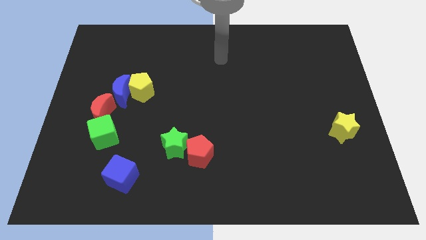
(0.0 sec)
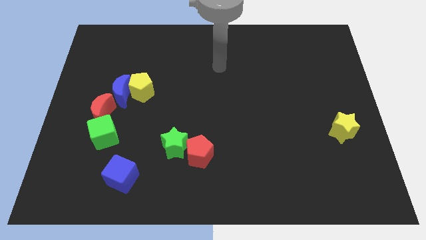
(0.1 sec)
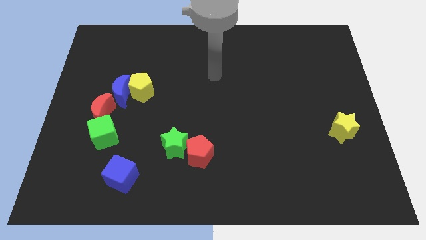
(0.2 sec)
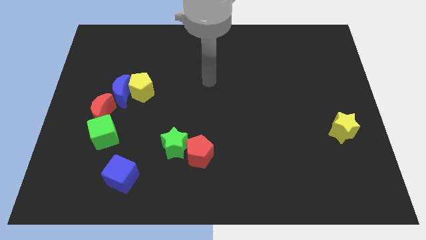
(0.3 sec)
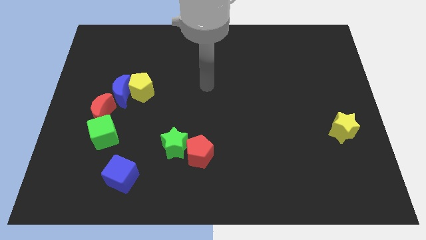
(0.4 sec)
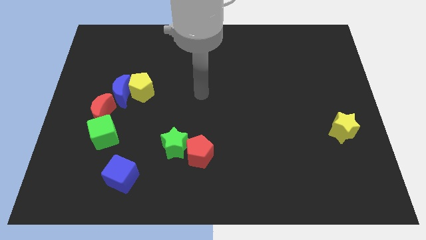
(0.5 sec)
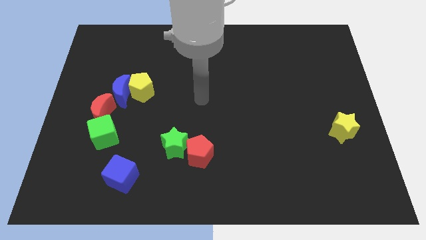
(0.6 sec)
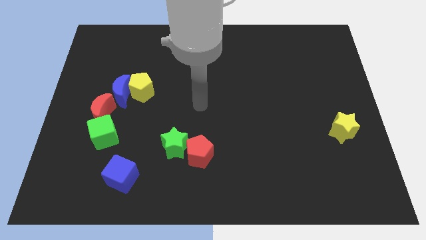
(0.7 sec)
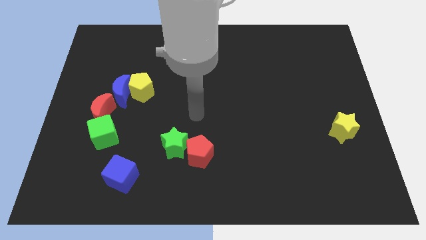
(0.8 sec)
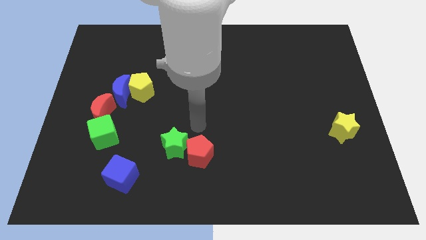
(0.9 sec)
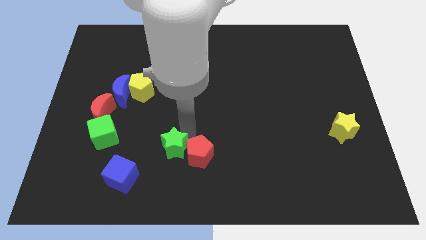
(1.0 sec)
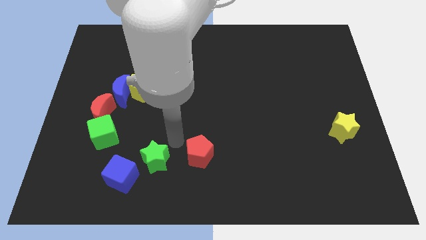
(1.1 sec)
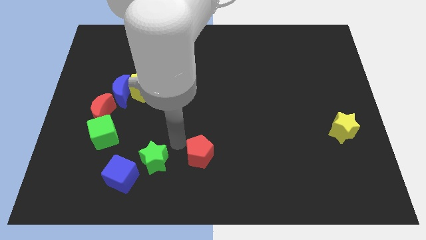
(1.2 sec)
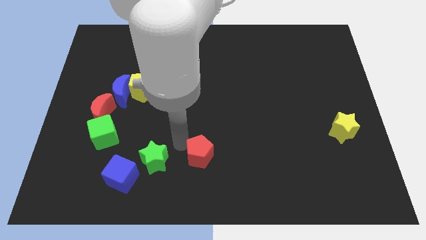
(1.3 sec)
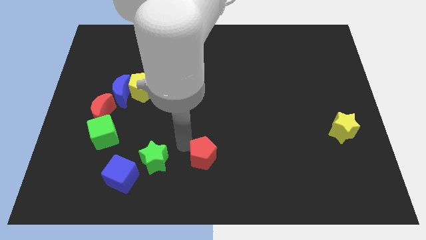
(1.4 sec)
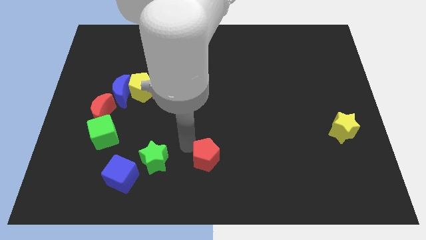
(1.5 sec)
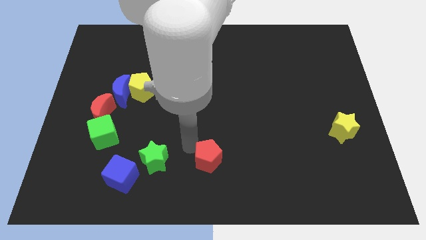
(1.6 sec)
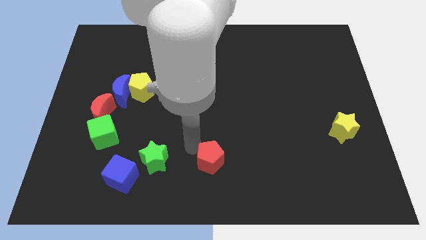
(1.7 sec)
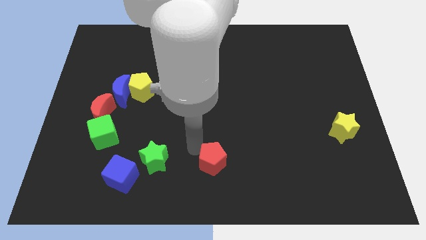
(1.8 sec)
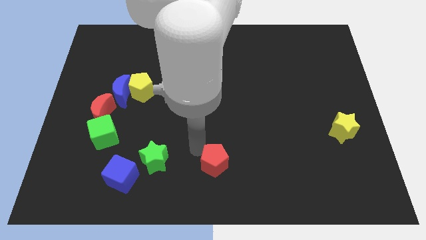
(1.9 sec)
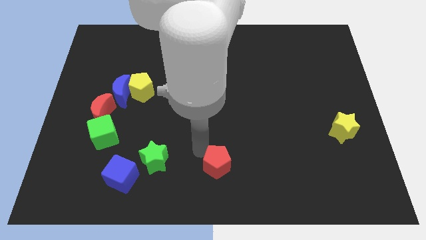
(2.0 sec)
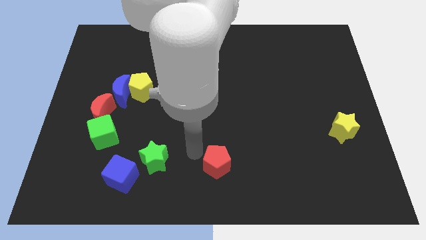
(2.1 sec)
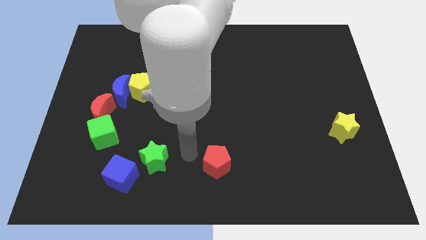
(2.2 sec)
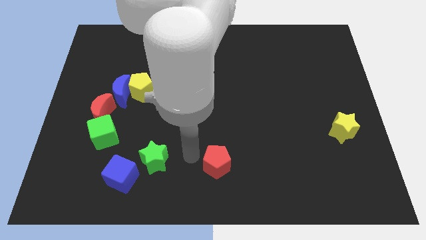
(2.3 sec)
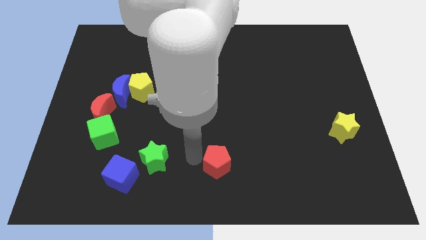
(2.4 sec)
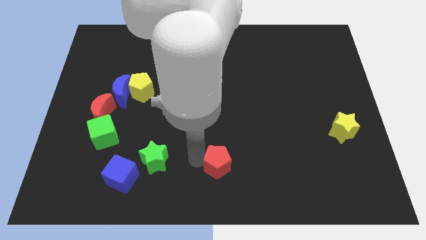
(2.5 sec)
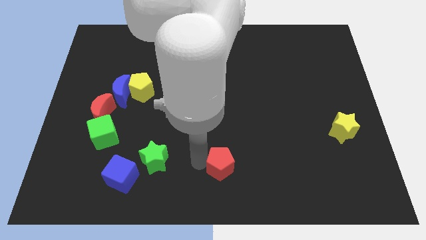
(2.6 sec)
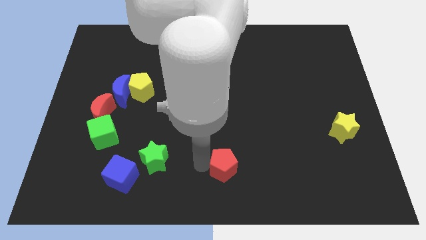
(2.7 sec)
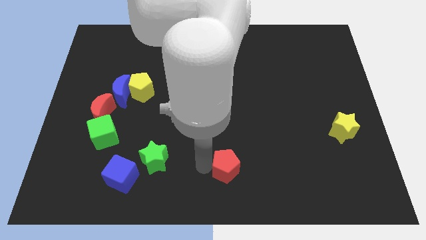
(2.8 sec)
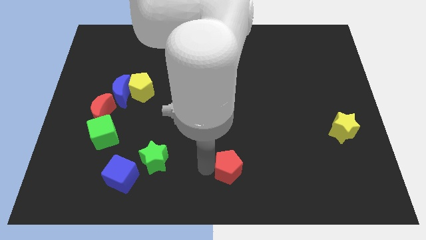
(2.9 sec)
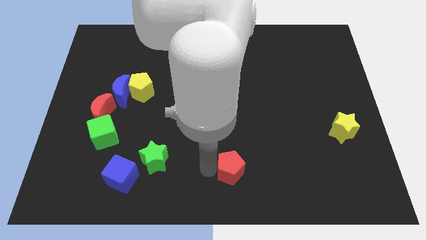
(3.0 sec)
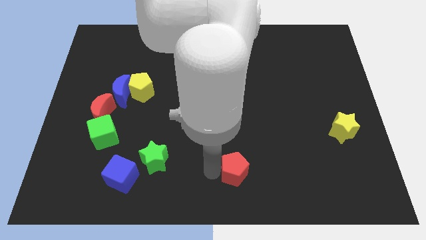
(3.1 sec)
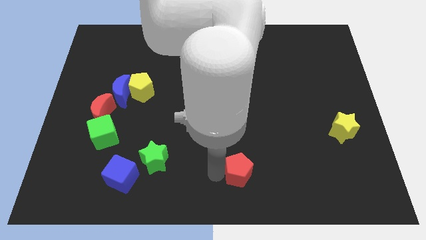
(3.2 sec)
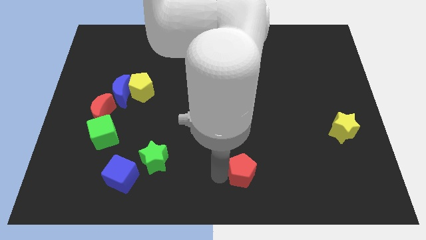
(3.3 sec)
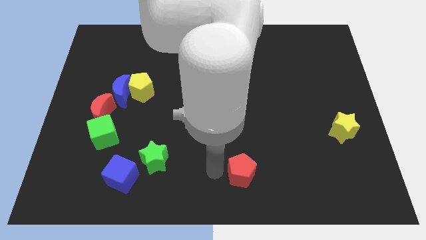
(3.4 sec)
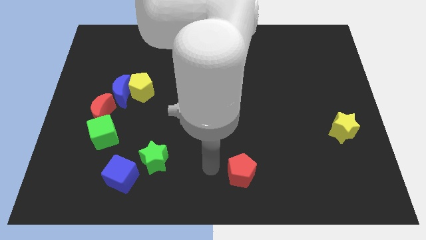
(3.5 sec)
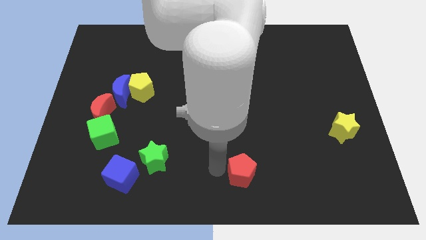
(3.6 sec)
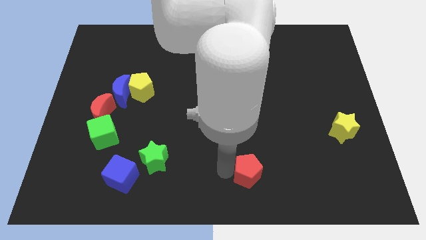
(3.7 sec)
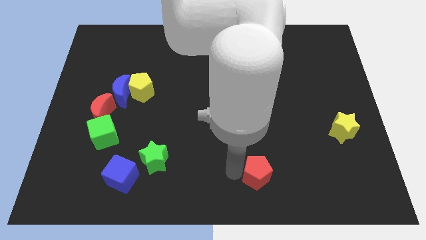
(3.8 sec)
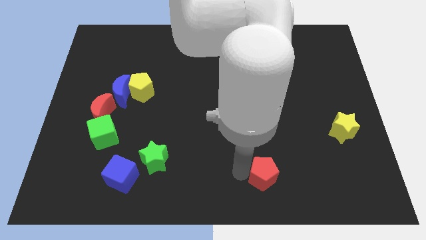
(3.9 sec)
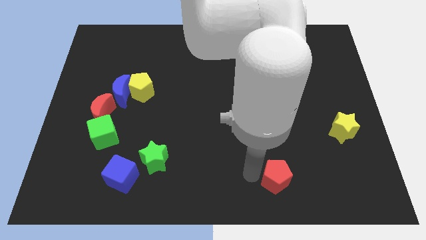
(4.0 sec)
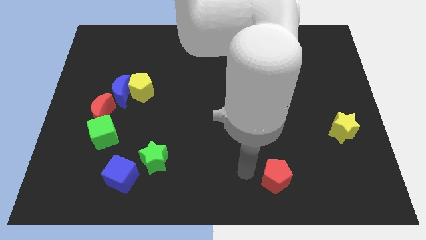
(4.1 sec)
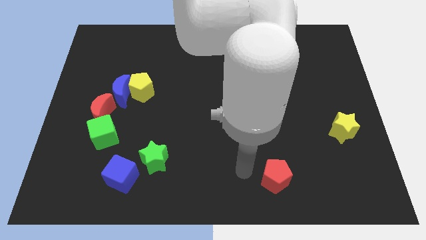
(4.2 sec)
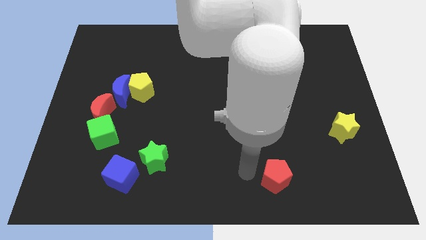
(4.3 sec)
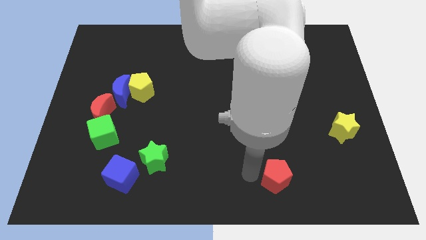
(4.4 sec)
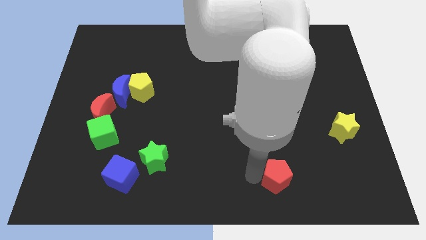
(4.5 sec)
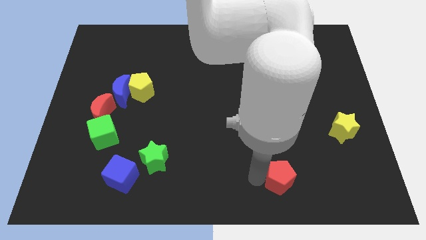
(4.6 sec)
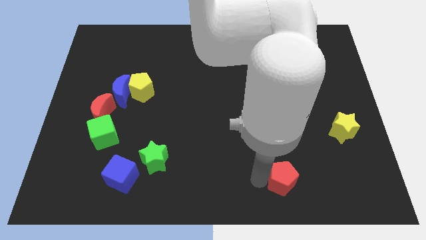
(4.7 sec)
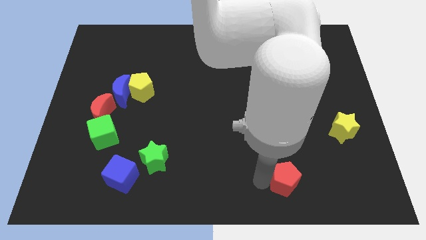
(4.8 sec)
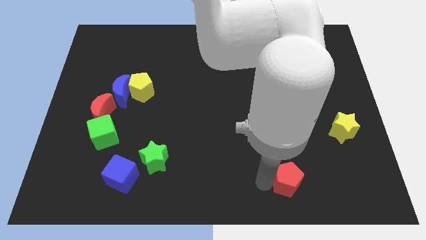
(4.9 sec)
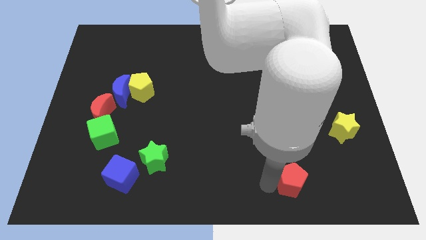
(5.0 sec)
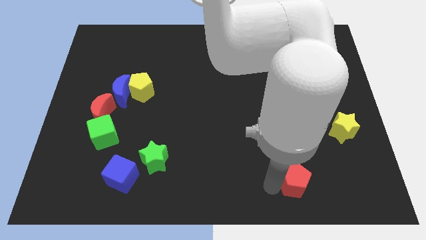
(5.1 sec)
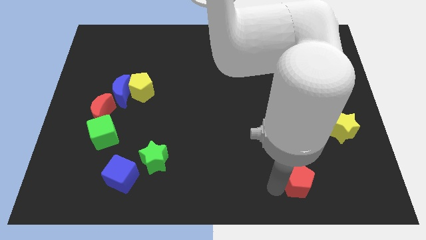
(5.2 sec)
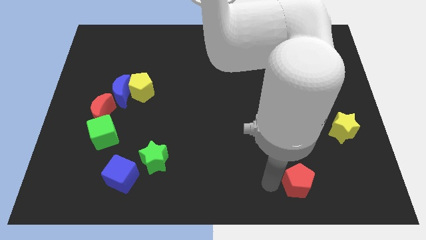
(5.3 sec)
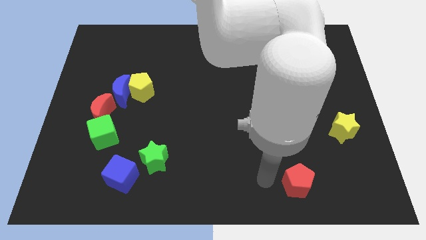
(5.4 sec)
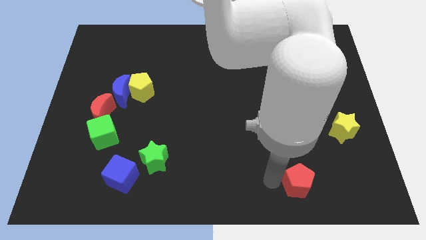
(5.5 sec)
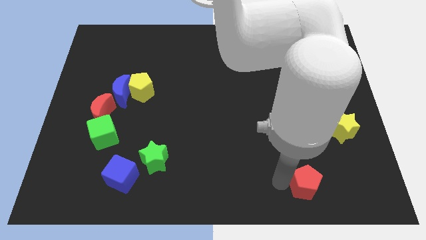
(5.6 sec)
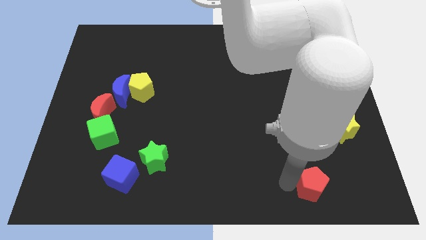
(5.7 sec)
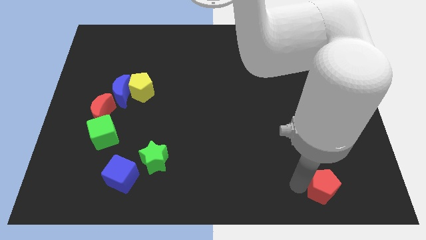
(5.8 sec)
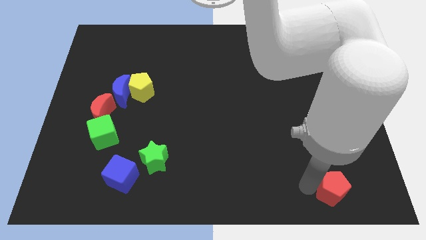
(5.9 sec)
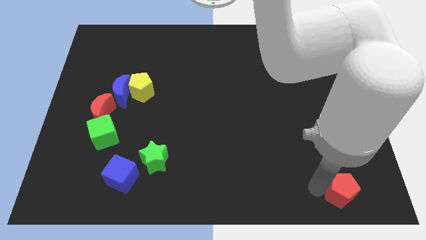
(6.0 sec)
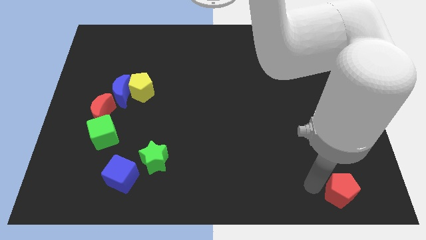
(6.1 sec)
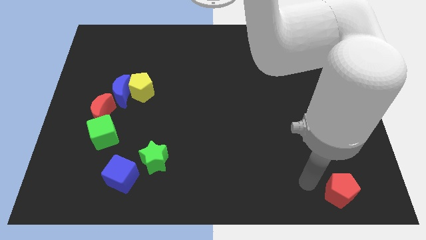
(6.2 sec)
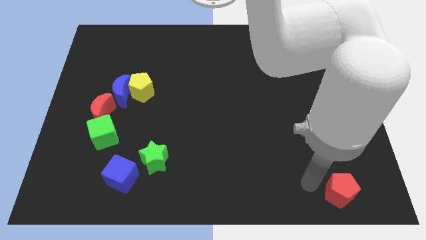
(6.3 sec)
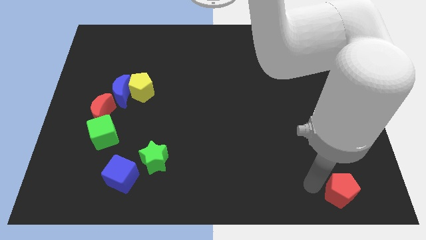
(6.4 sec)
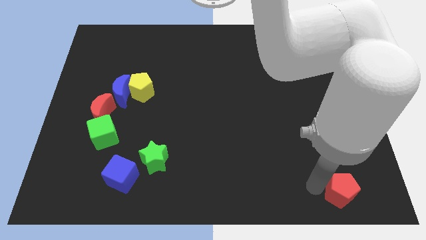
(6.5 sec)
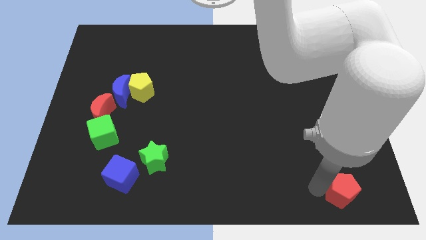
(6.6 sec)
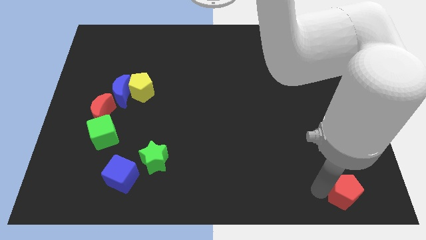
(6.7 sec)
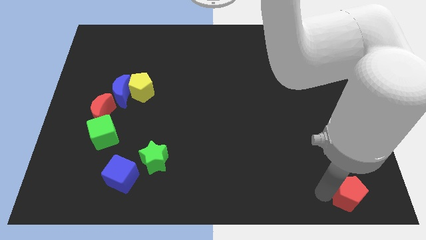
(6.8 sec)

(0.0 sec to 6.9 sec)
put the red pentagon to the lower right corner

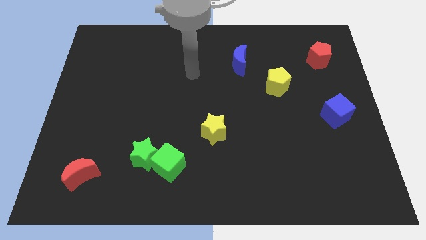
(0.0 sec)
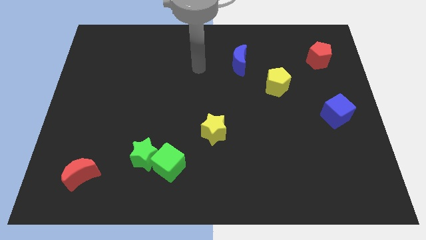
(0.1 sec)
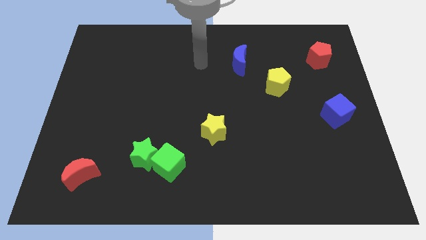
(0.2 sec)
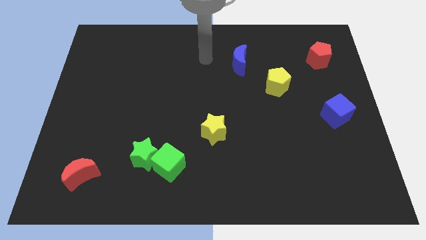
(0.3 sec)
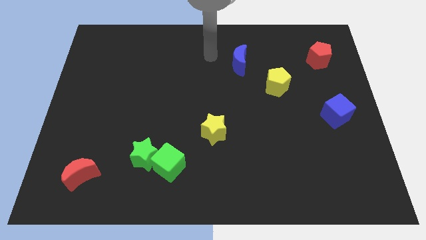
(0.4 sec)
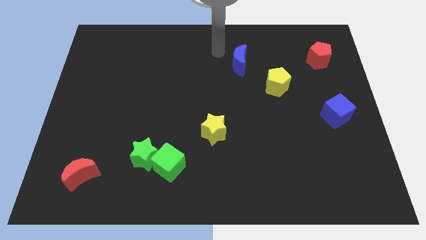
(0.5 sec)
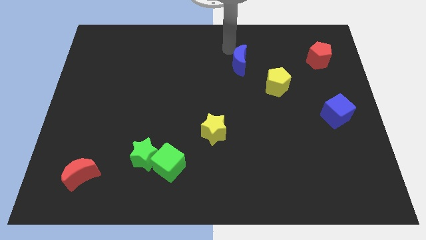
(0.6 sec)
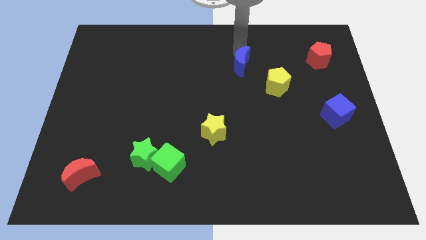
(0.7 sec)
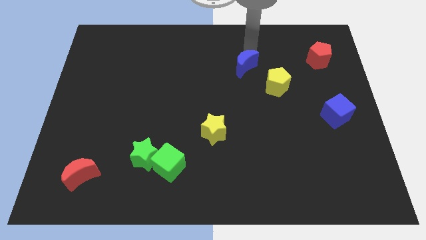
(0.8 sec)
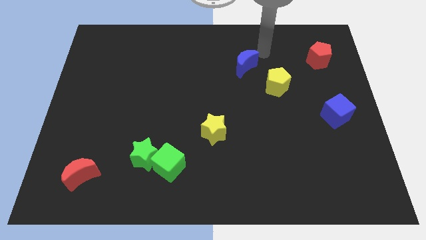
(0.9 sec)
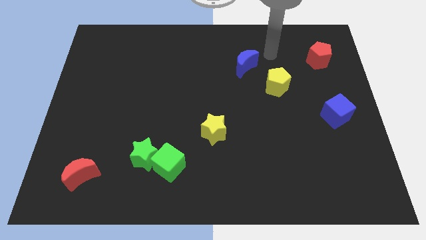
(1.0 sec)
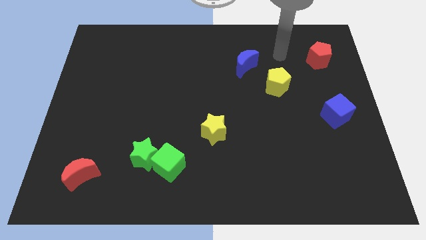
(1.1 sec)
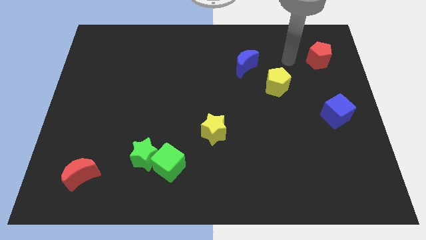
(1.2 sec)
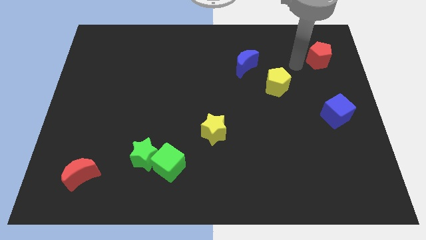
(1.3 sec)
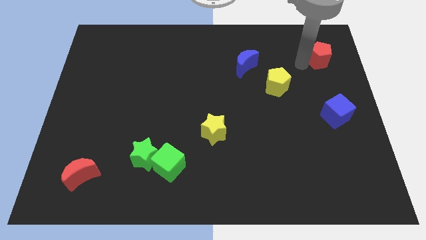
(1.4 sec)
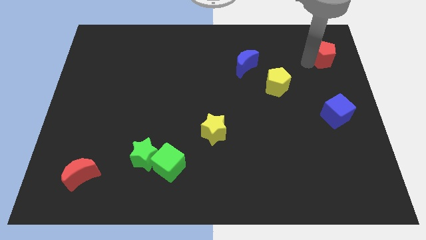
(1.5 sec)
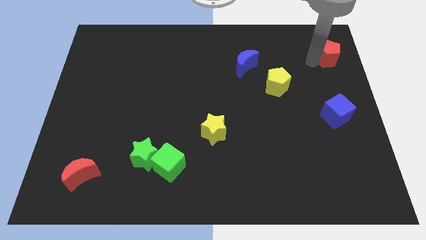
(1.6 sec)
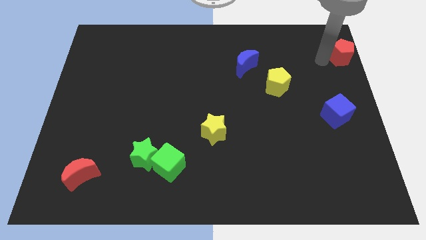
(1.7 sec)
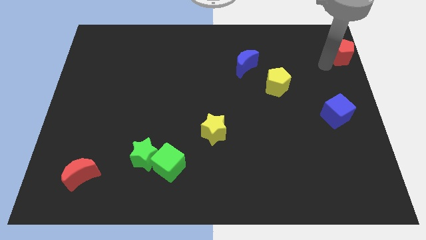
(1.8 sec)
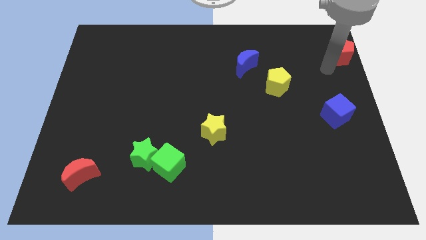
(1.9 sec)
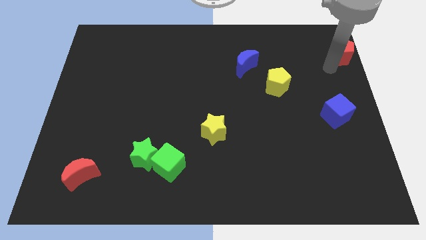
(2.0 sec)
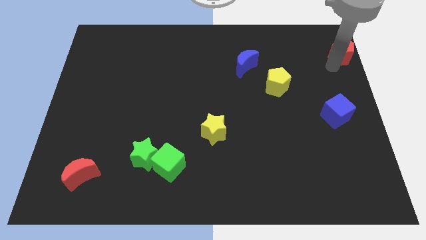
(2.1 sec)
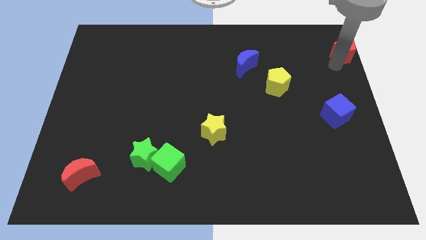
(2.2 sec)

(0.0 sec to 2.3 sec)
put the red pentagon to the top right
